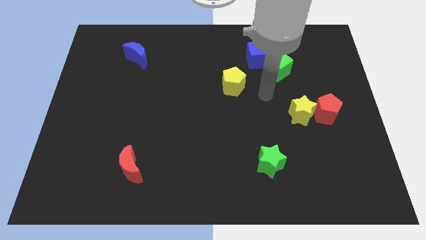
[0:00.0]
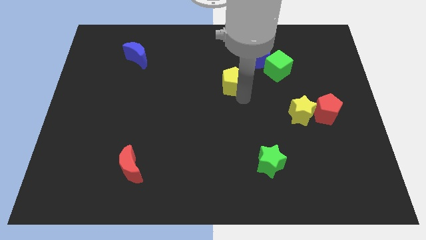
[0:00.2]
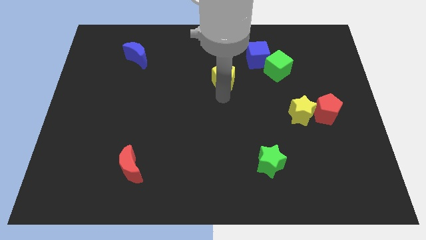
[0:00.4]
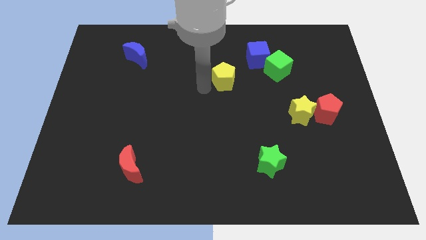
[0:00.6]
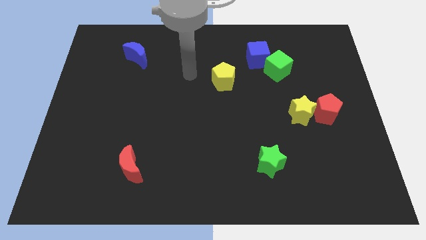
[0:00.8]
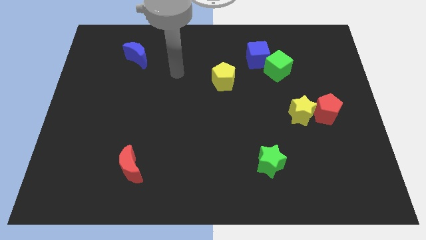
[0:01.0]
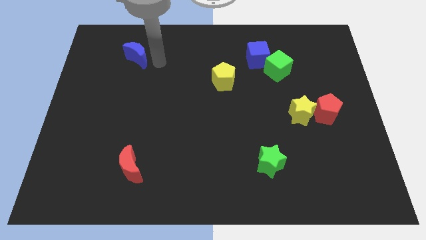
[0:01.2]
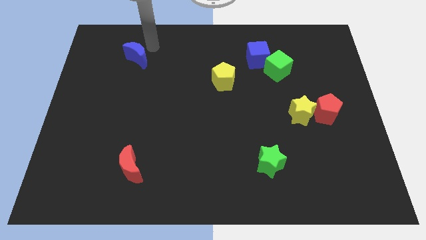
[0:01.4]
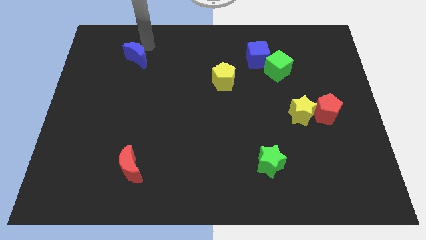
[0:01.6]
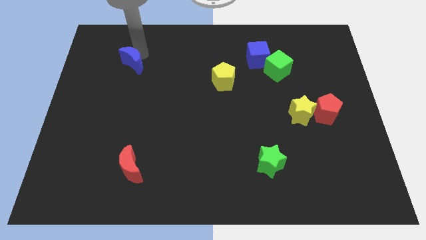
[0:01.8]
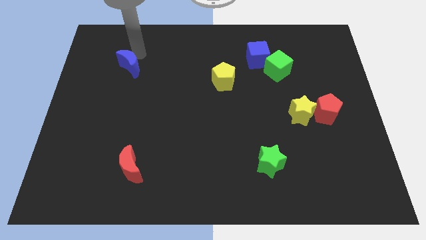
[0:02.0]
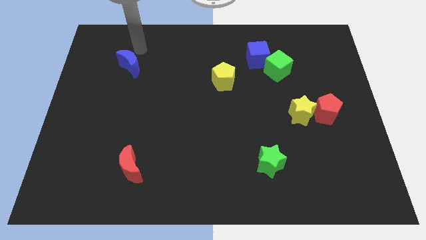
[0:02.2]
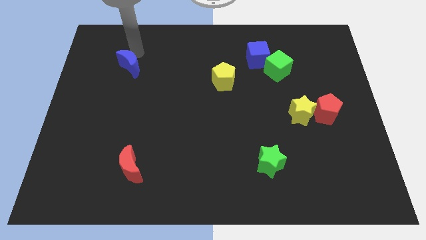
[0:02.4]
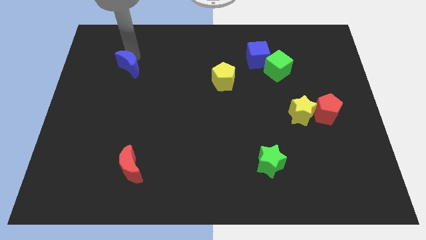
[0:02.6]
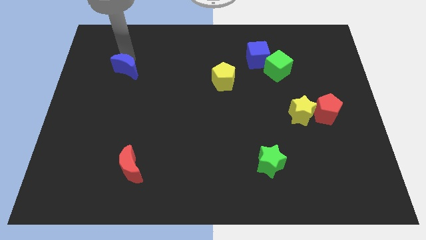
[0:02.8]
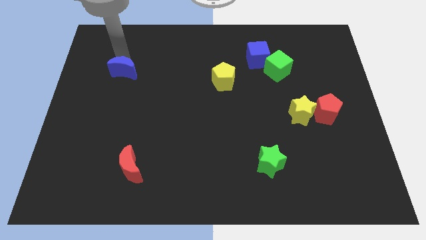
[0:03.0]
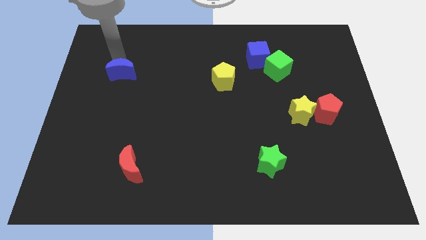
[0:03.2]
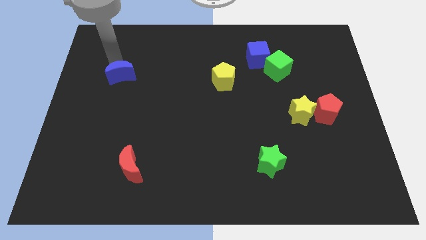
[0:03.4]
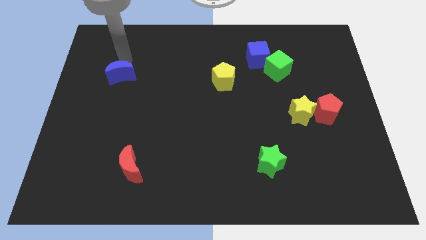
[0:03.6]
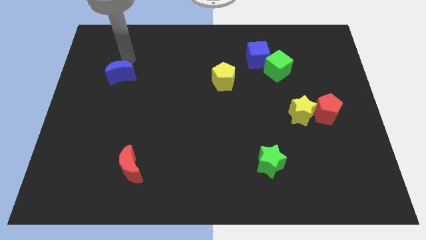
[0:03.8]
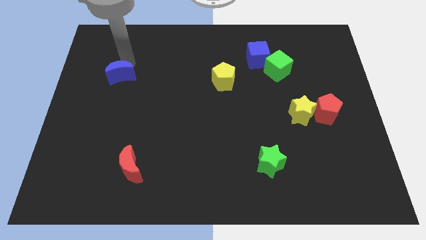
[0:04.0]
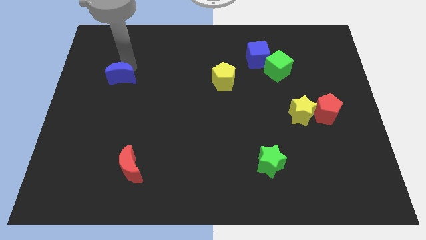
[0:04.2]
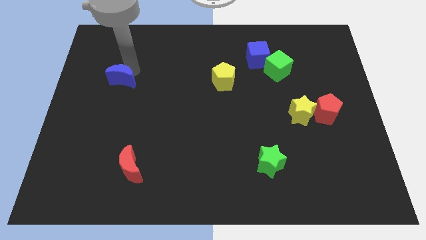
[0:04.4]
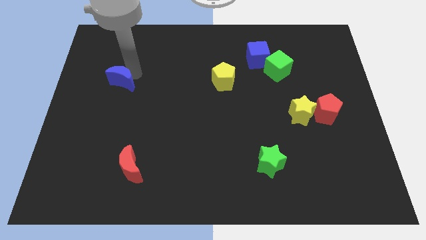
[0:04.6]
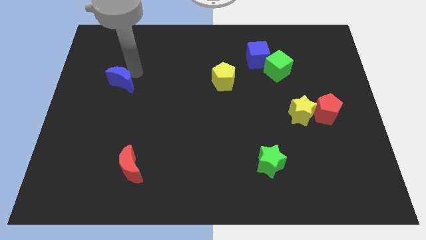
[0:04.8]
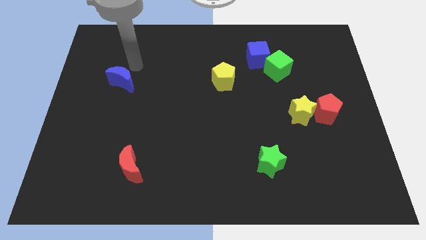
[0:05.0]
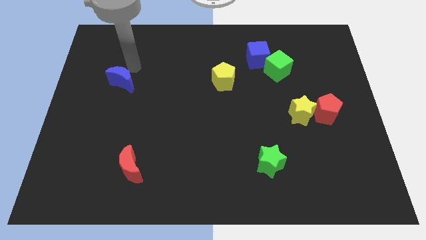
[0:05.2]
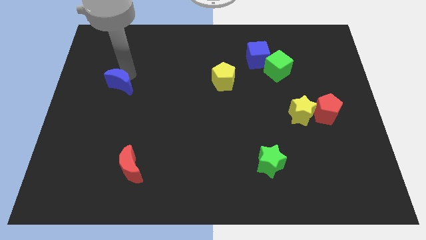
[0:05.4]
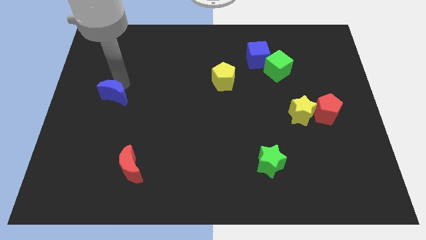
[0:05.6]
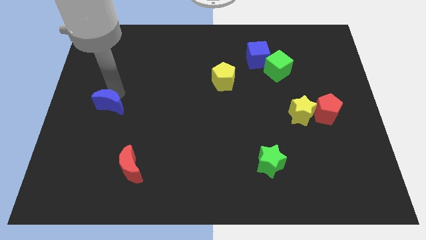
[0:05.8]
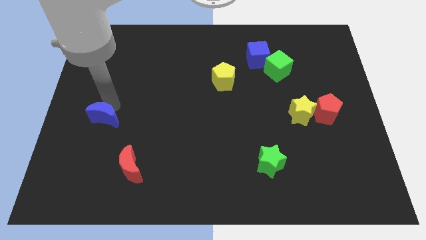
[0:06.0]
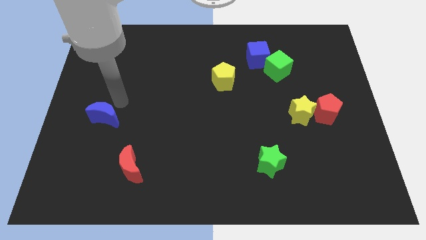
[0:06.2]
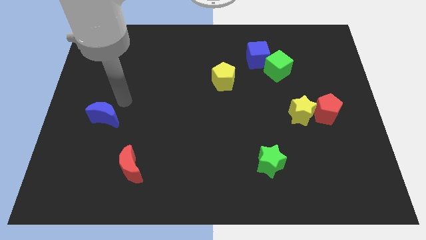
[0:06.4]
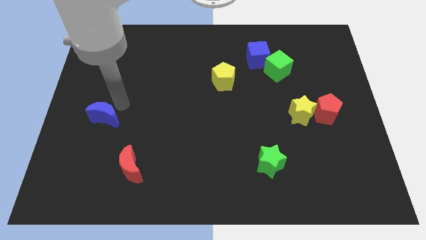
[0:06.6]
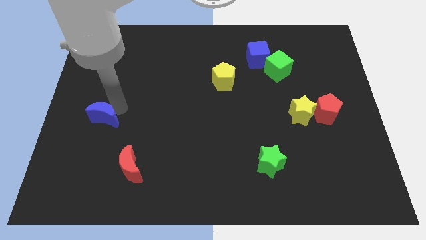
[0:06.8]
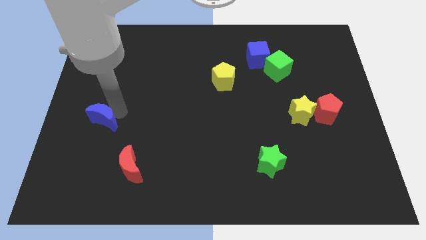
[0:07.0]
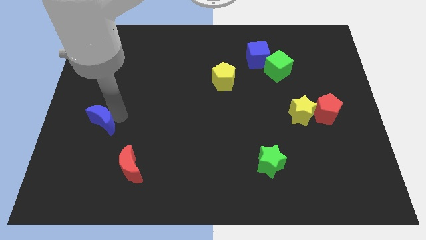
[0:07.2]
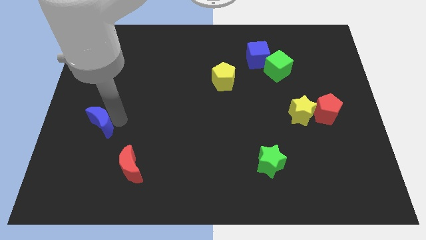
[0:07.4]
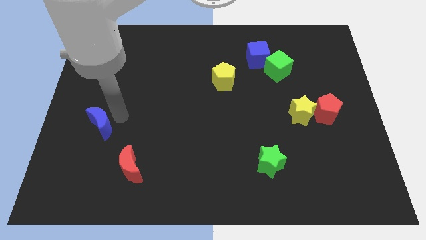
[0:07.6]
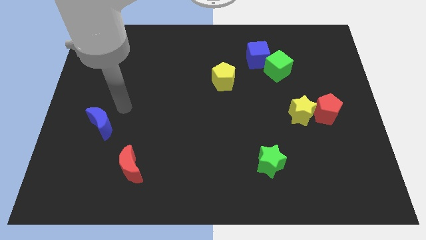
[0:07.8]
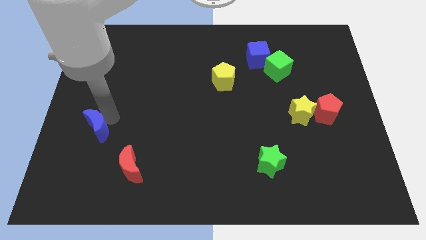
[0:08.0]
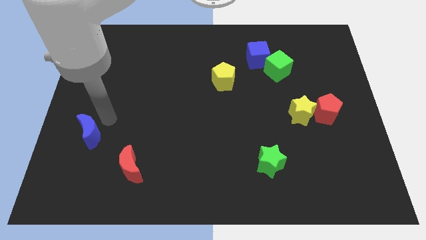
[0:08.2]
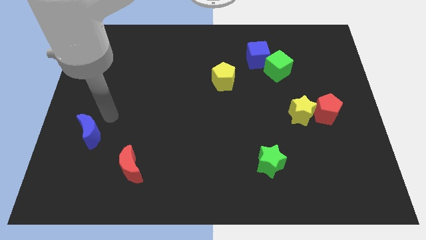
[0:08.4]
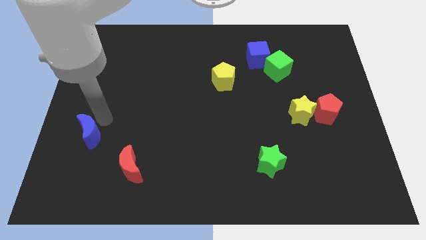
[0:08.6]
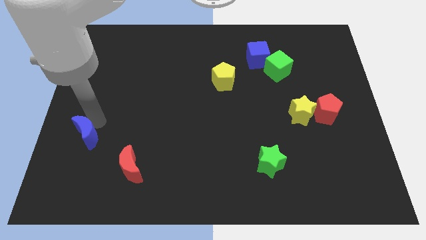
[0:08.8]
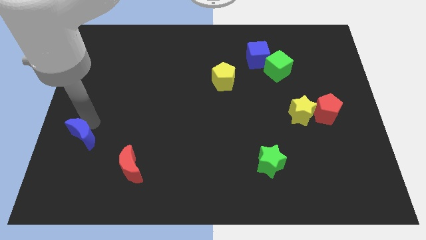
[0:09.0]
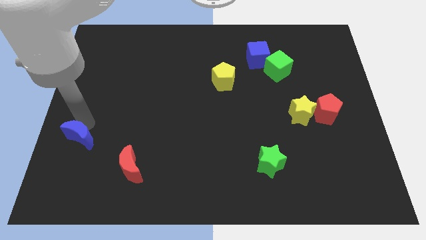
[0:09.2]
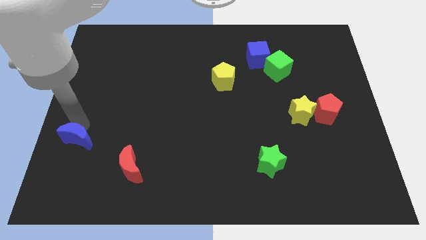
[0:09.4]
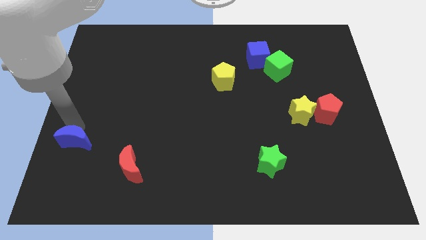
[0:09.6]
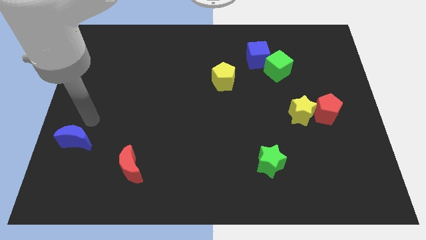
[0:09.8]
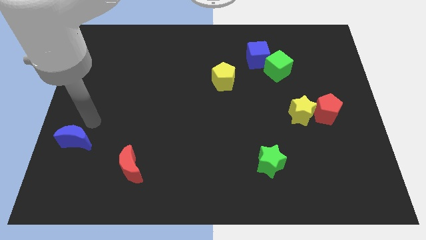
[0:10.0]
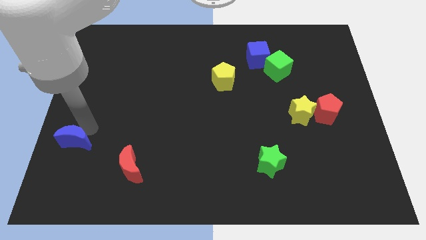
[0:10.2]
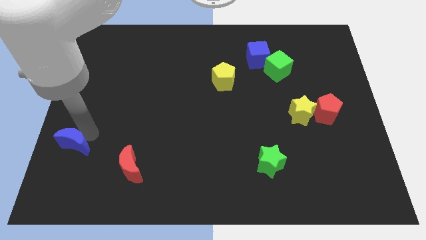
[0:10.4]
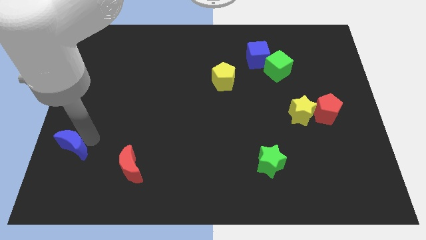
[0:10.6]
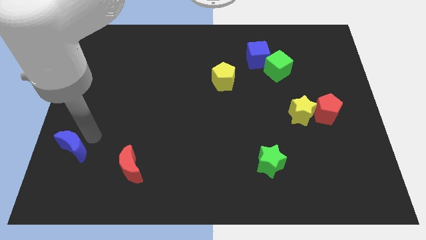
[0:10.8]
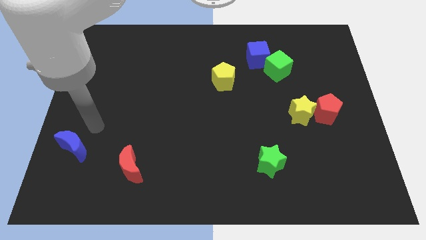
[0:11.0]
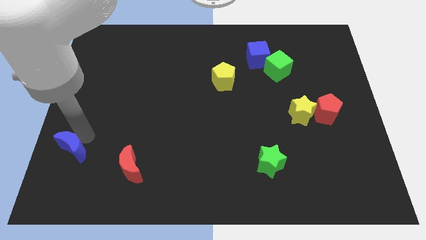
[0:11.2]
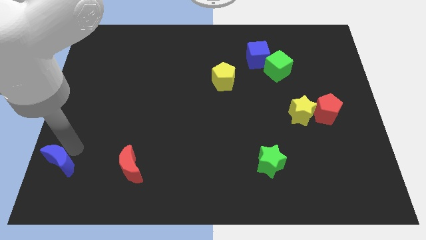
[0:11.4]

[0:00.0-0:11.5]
put the blue moon to the bottom left

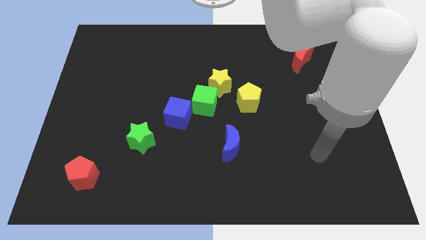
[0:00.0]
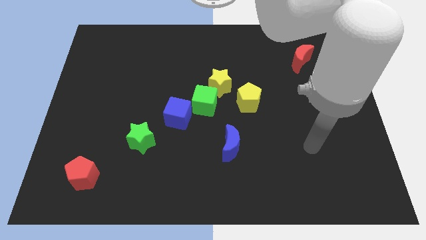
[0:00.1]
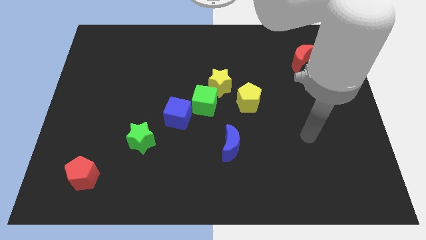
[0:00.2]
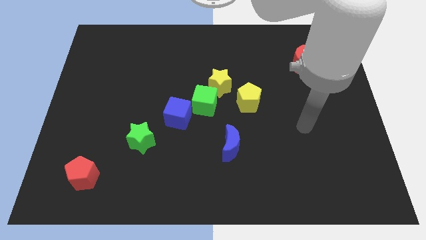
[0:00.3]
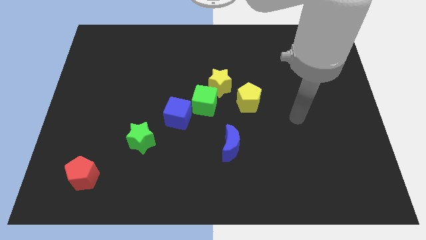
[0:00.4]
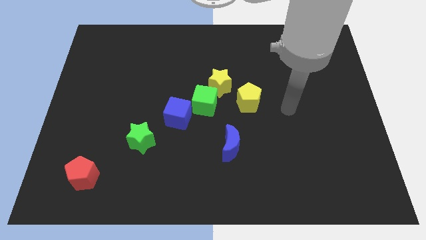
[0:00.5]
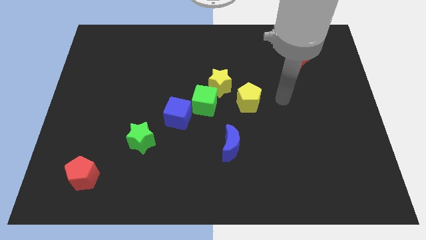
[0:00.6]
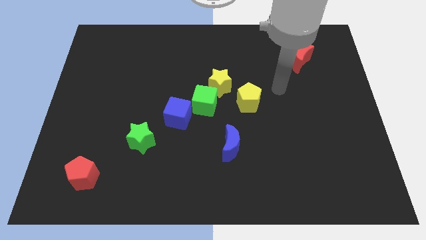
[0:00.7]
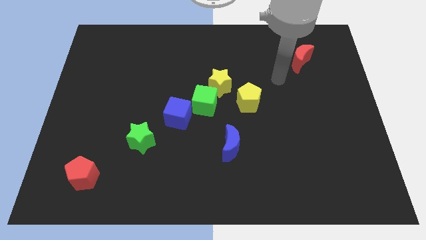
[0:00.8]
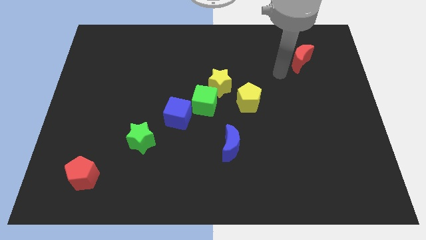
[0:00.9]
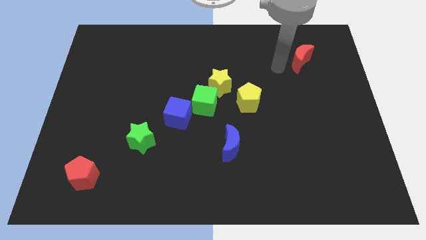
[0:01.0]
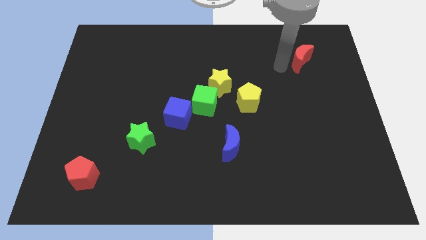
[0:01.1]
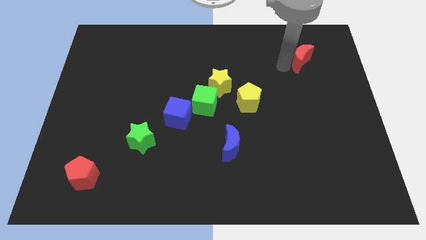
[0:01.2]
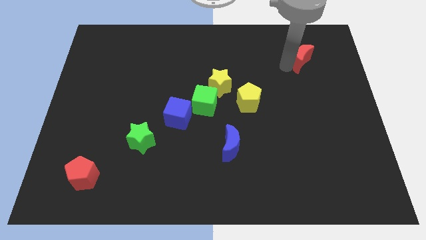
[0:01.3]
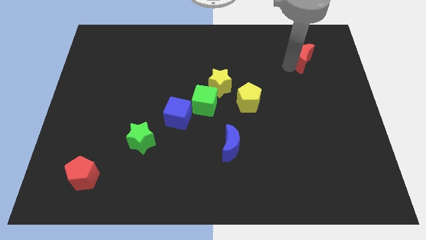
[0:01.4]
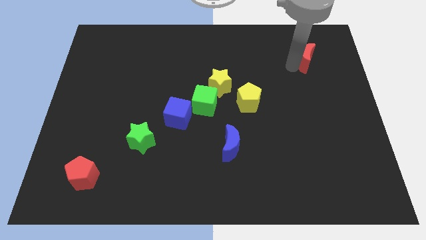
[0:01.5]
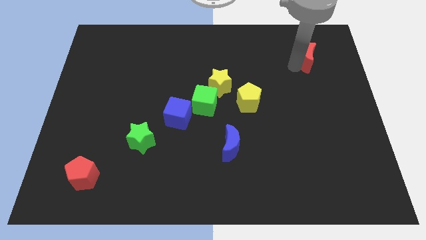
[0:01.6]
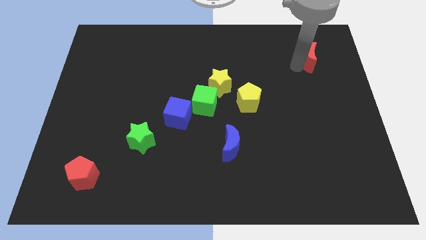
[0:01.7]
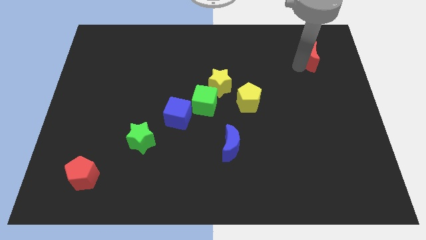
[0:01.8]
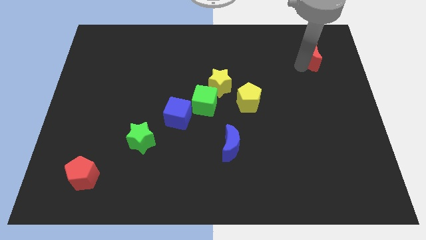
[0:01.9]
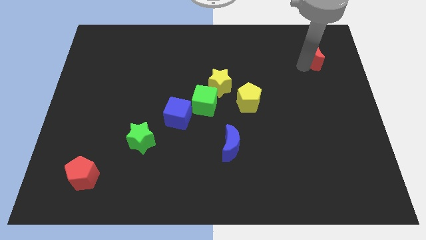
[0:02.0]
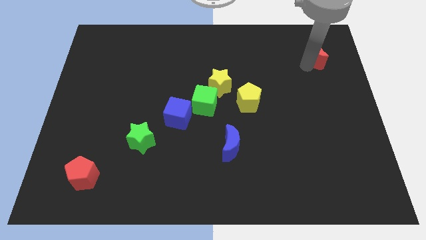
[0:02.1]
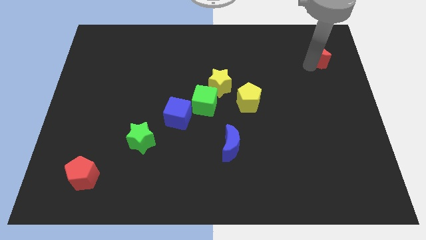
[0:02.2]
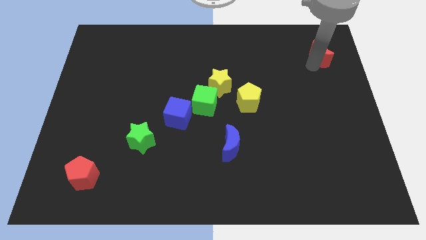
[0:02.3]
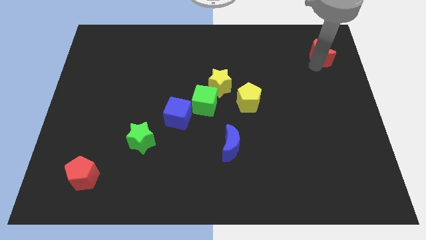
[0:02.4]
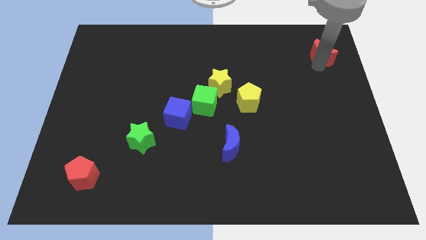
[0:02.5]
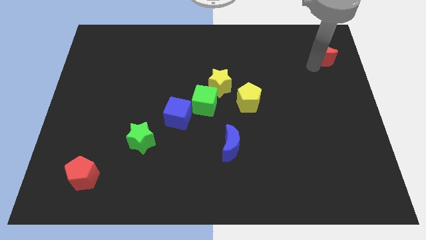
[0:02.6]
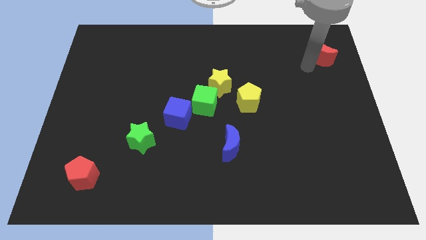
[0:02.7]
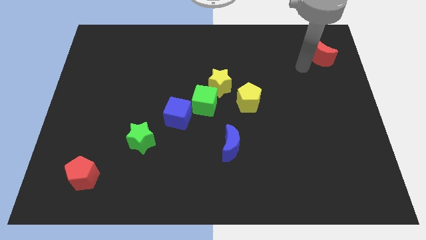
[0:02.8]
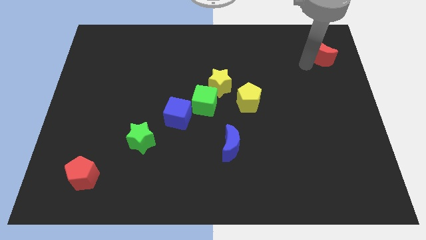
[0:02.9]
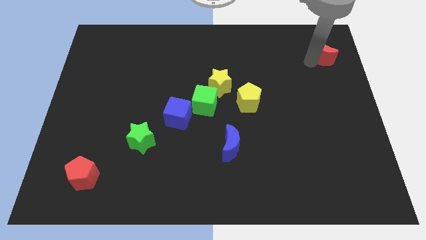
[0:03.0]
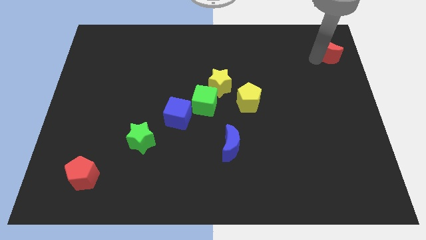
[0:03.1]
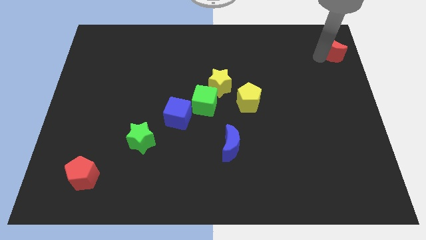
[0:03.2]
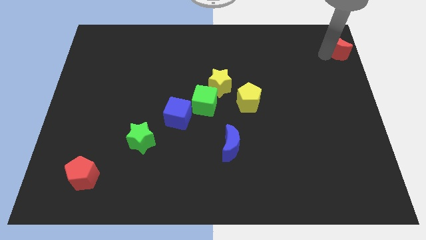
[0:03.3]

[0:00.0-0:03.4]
put the red moon to the top right
